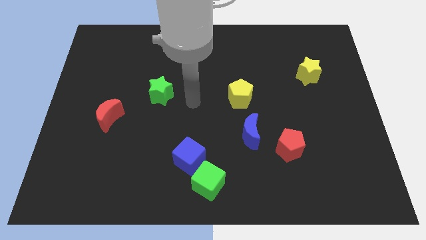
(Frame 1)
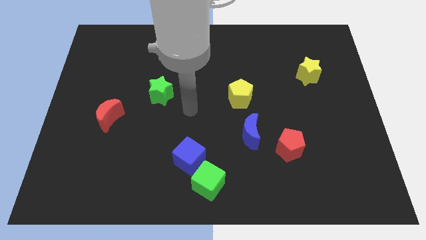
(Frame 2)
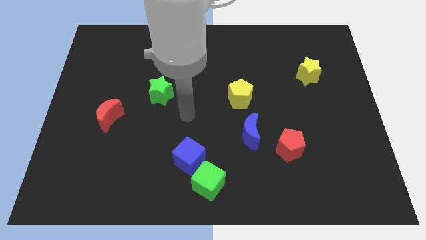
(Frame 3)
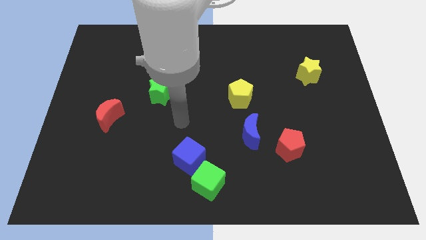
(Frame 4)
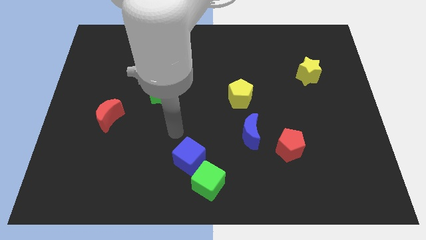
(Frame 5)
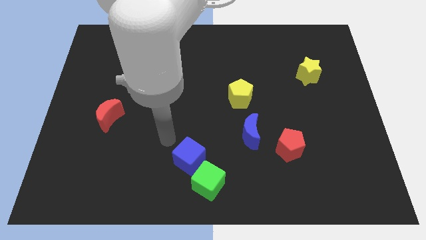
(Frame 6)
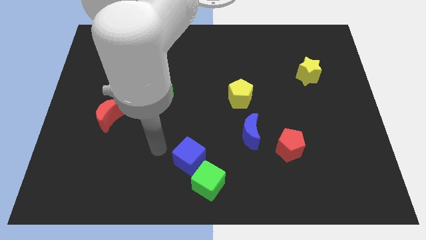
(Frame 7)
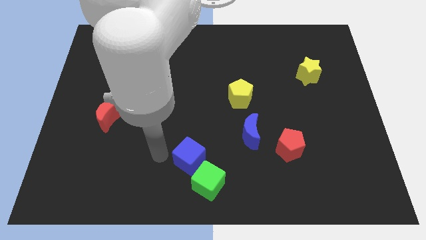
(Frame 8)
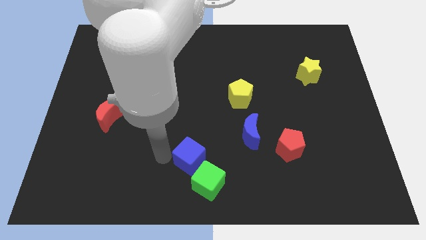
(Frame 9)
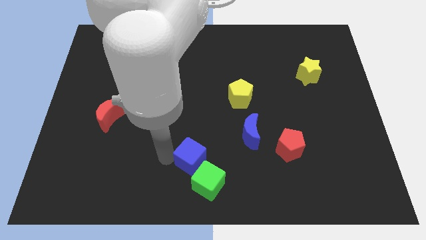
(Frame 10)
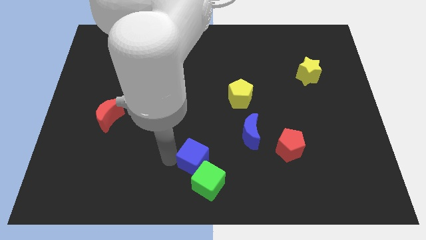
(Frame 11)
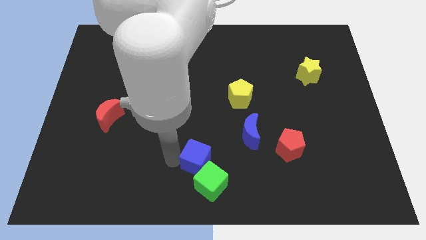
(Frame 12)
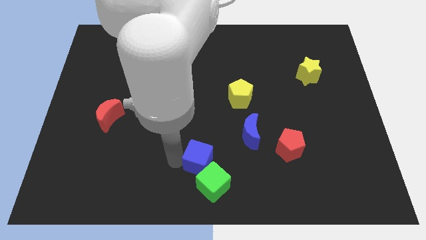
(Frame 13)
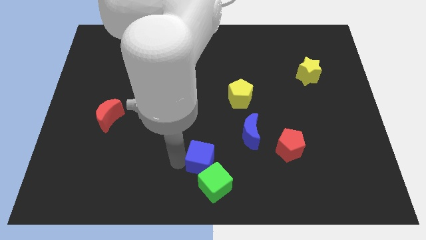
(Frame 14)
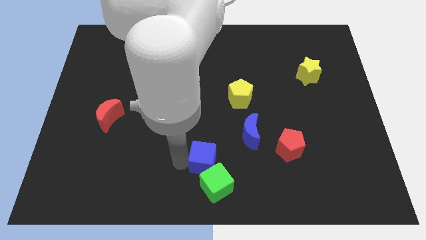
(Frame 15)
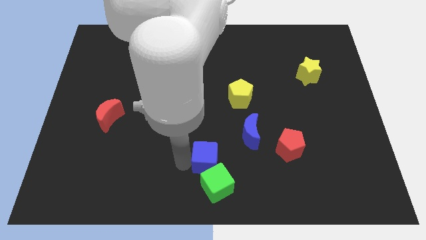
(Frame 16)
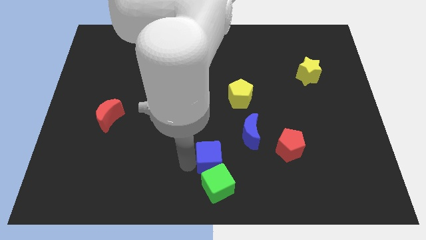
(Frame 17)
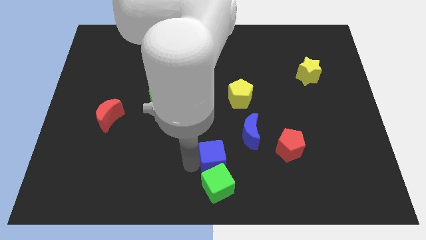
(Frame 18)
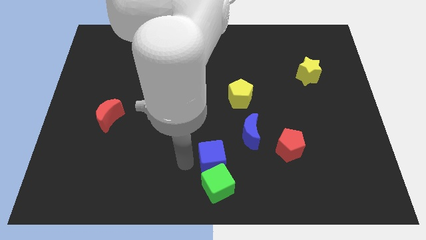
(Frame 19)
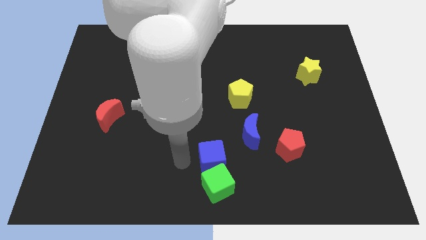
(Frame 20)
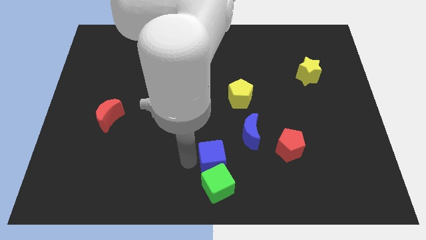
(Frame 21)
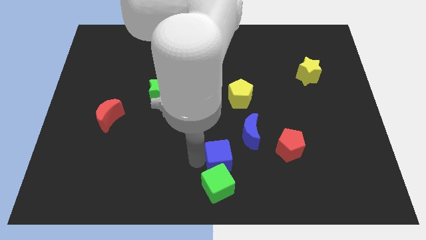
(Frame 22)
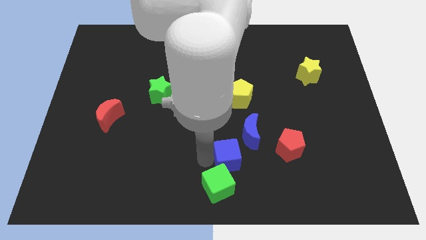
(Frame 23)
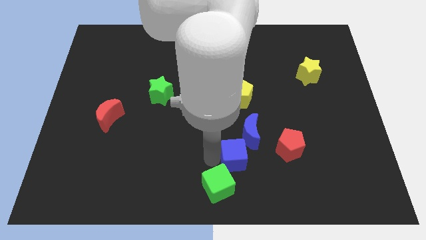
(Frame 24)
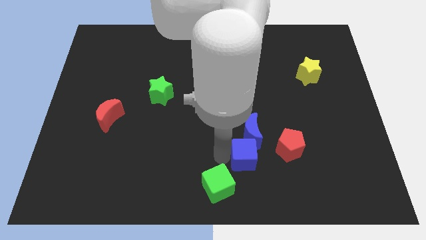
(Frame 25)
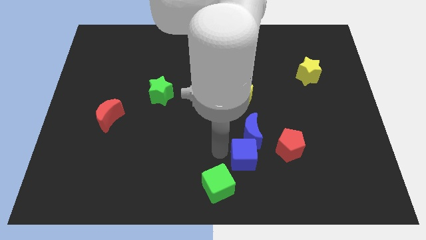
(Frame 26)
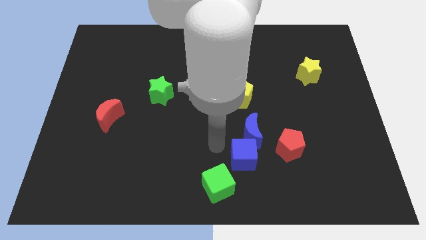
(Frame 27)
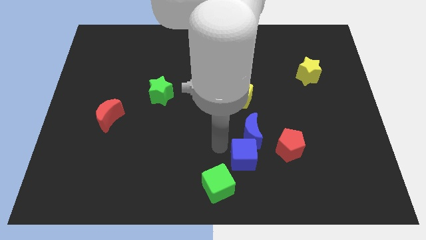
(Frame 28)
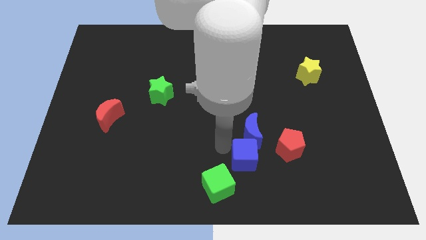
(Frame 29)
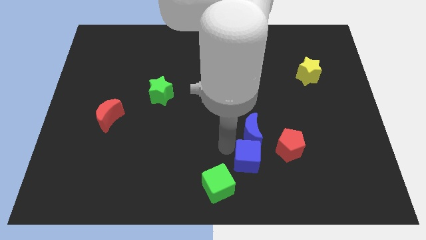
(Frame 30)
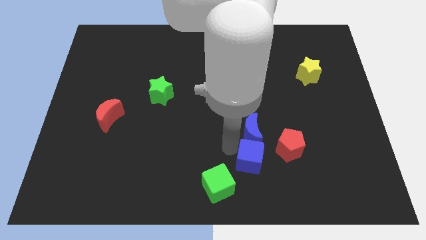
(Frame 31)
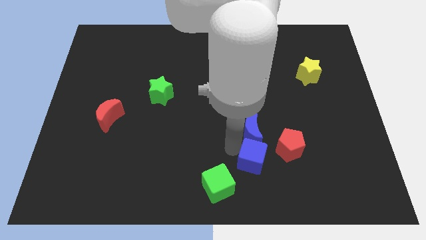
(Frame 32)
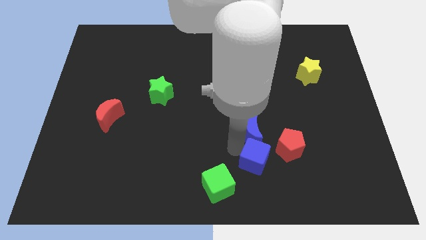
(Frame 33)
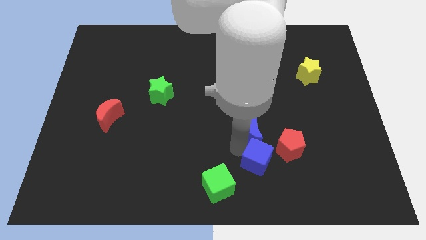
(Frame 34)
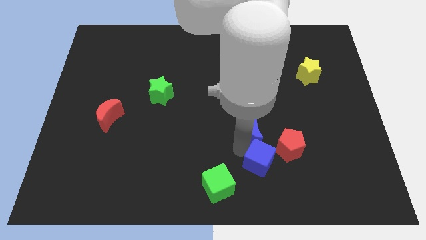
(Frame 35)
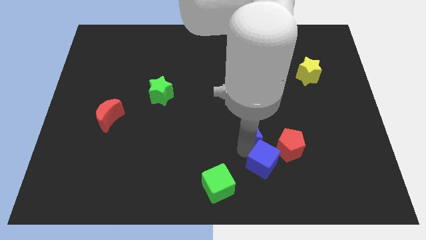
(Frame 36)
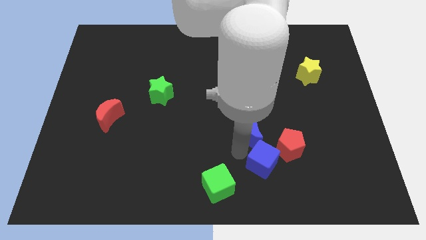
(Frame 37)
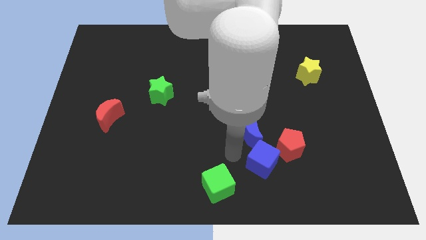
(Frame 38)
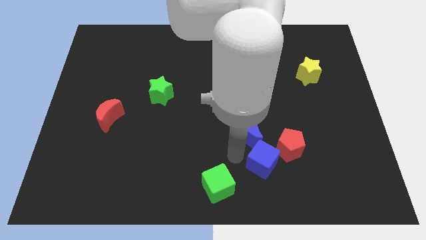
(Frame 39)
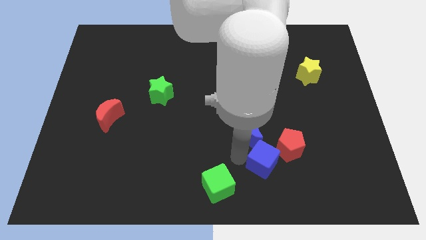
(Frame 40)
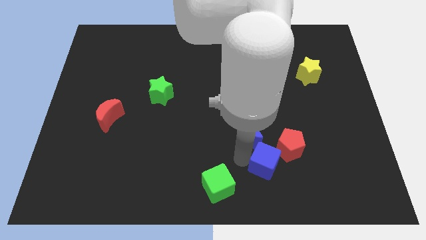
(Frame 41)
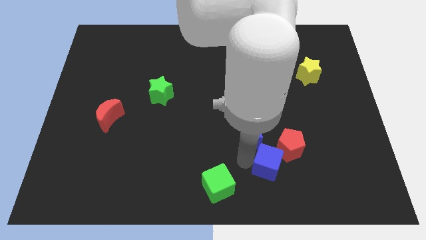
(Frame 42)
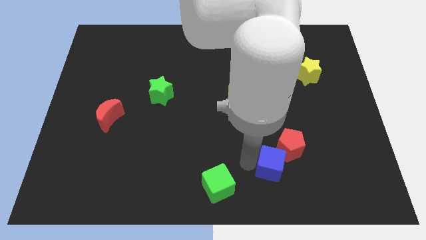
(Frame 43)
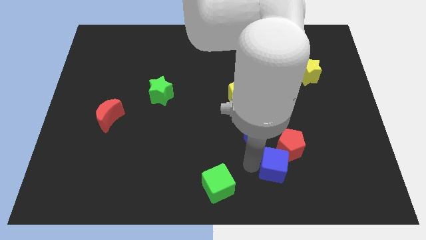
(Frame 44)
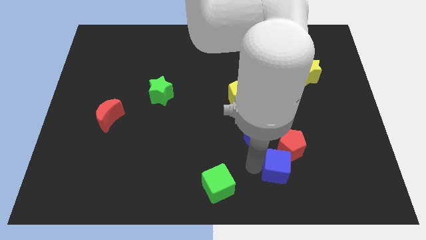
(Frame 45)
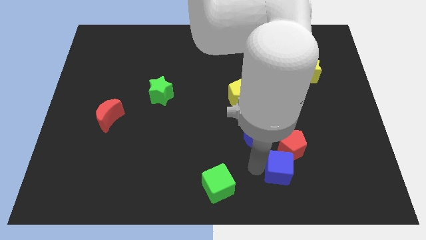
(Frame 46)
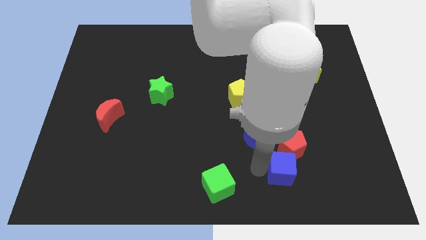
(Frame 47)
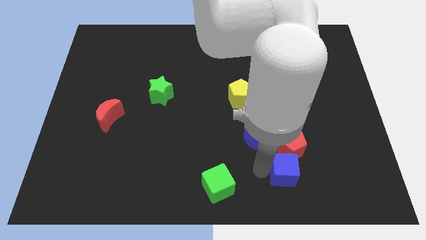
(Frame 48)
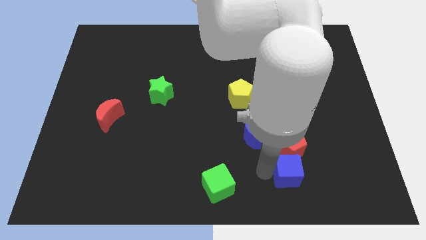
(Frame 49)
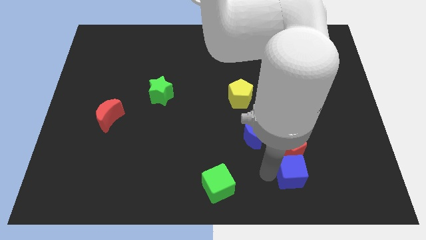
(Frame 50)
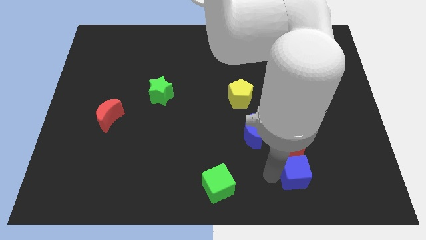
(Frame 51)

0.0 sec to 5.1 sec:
push the blue cube diagonally down and to the right of the red pentagon

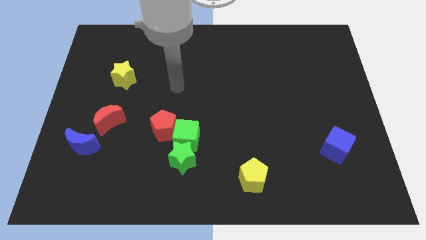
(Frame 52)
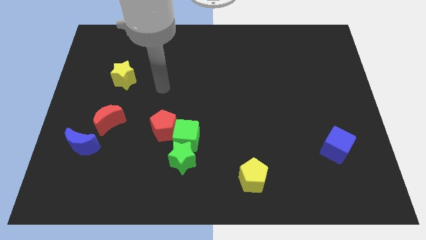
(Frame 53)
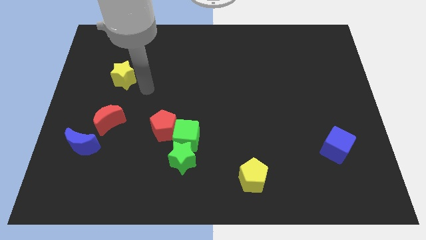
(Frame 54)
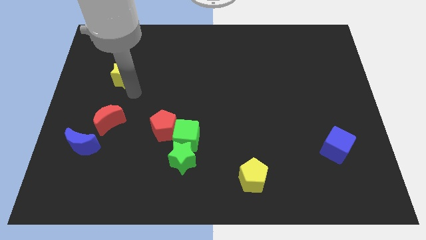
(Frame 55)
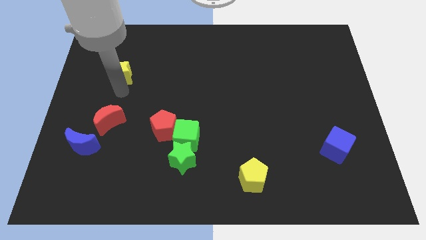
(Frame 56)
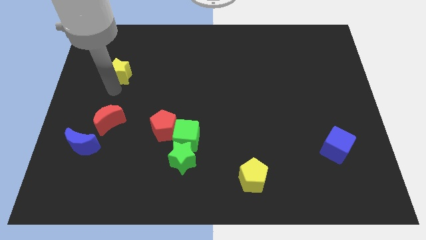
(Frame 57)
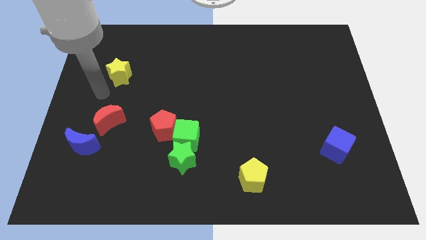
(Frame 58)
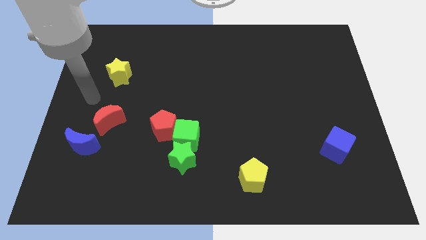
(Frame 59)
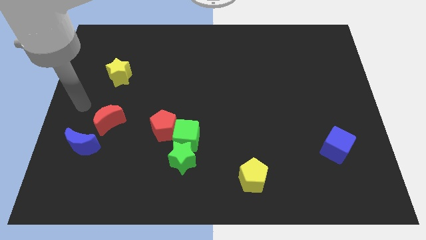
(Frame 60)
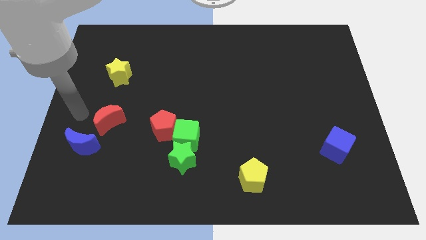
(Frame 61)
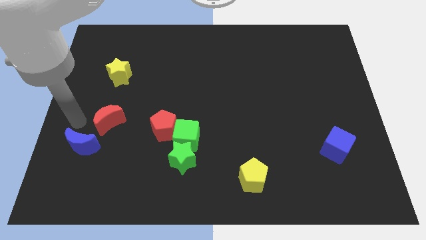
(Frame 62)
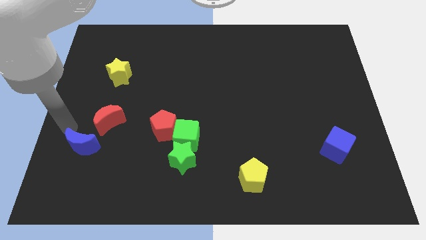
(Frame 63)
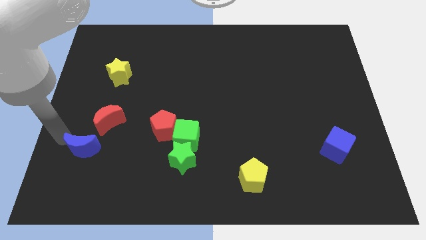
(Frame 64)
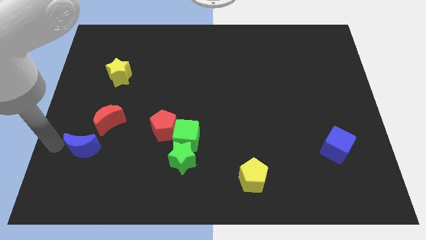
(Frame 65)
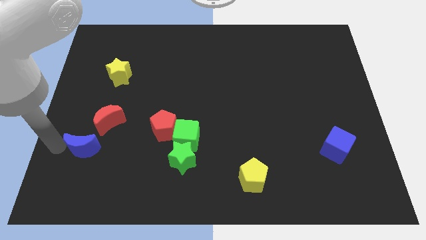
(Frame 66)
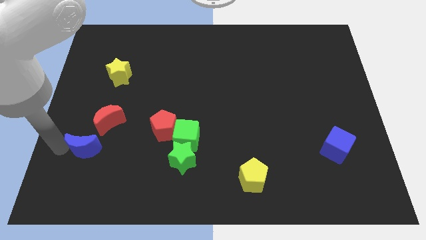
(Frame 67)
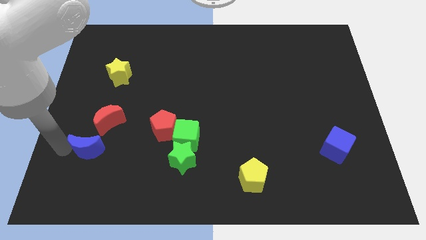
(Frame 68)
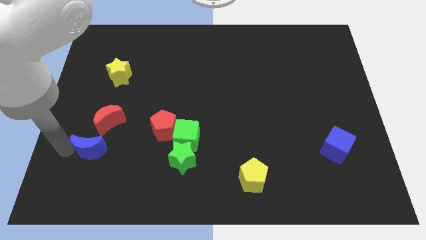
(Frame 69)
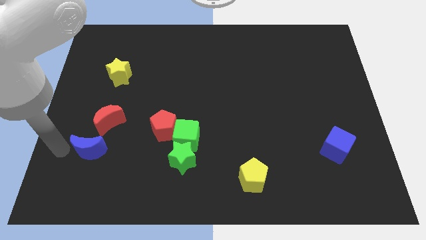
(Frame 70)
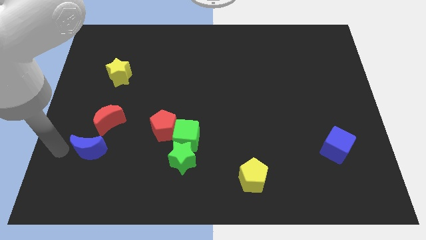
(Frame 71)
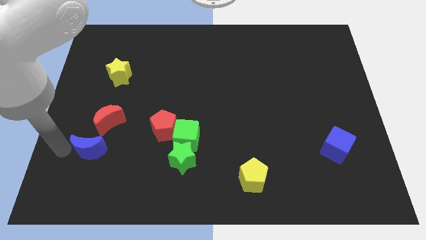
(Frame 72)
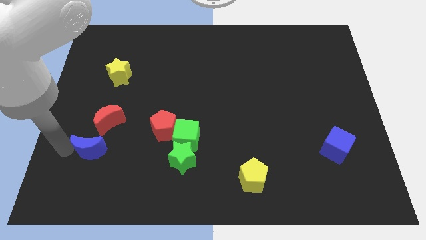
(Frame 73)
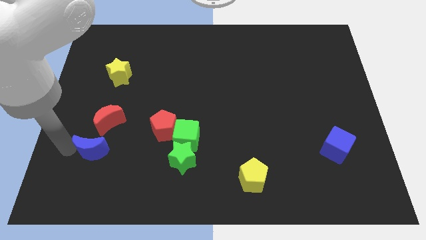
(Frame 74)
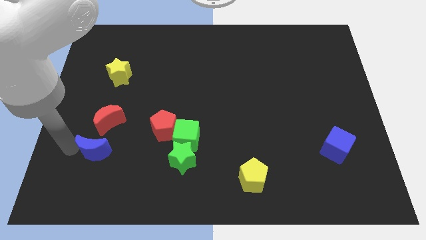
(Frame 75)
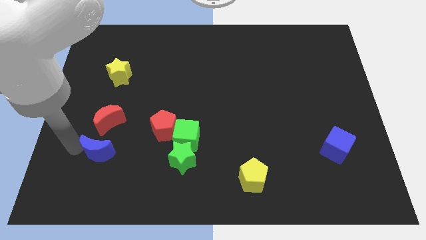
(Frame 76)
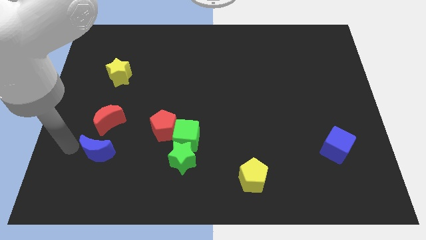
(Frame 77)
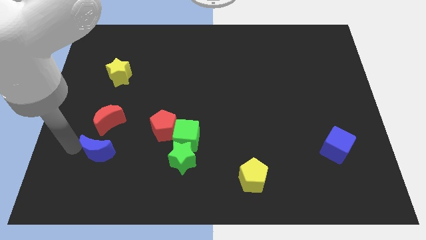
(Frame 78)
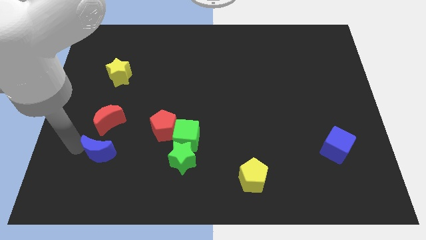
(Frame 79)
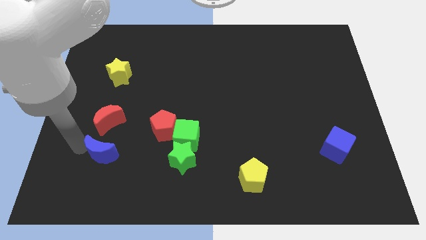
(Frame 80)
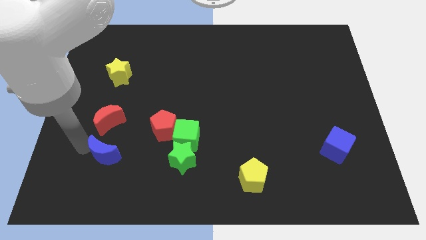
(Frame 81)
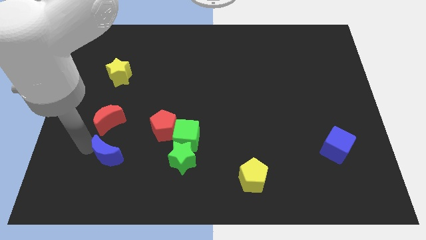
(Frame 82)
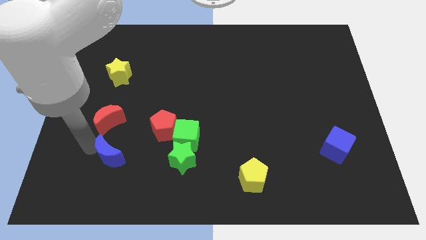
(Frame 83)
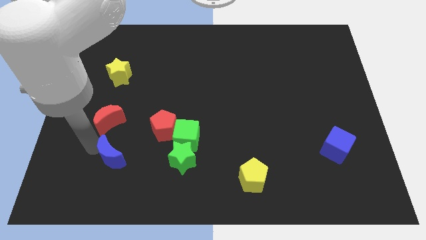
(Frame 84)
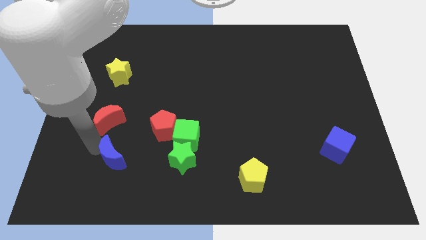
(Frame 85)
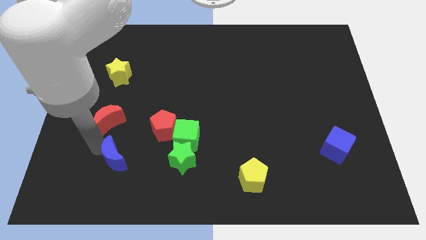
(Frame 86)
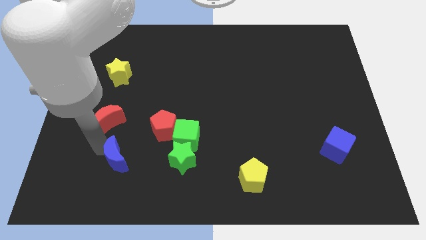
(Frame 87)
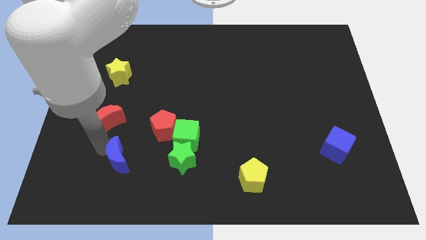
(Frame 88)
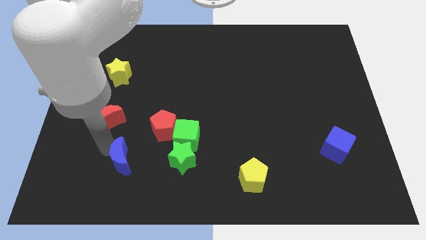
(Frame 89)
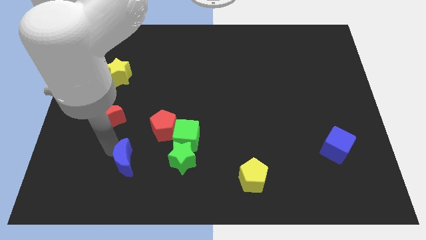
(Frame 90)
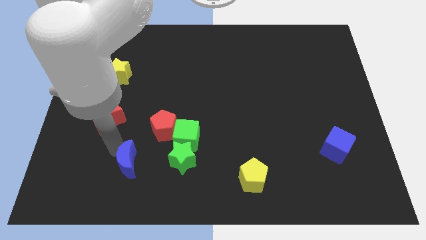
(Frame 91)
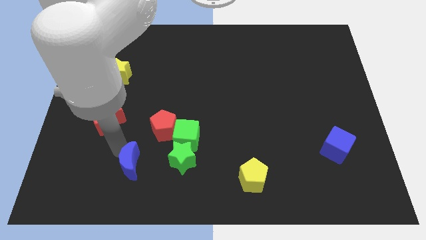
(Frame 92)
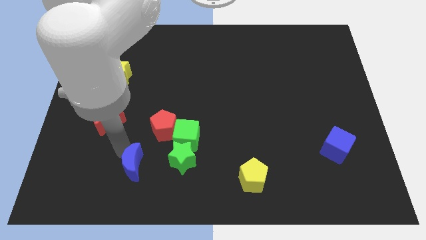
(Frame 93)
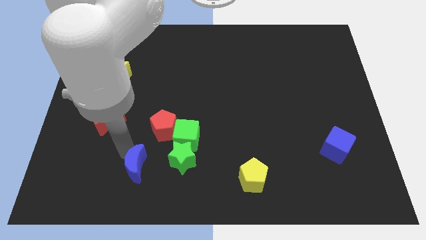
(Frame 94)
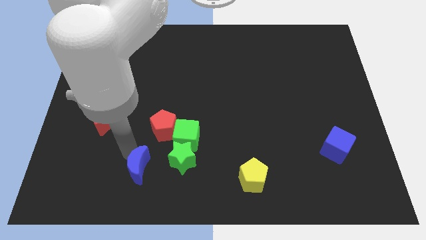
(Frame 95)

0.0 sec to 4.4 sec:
push the blue moon to the bottom side of the red pentagon
